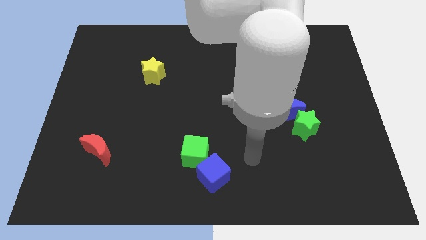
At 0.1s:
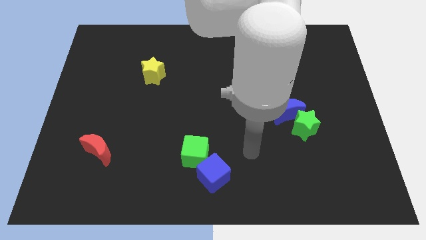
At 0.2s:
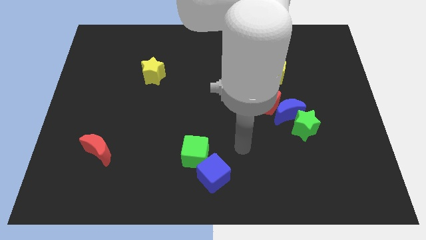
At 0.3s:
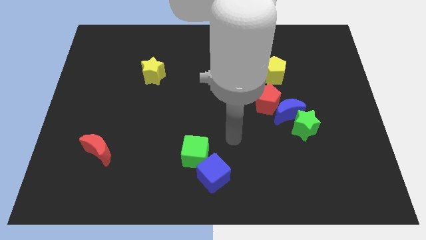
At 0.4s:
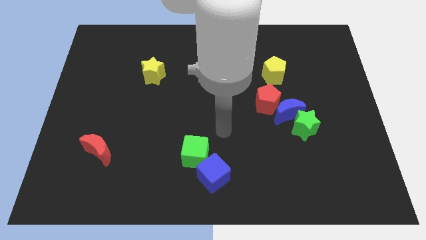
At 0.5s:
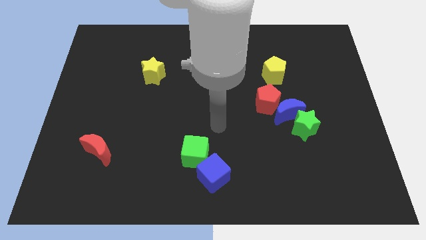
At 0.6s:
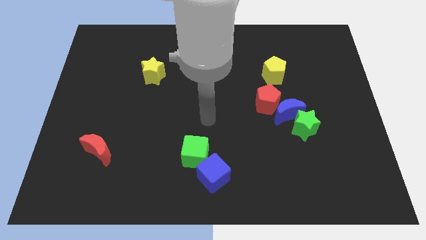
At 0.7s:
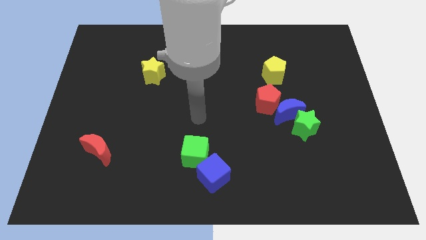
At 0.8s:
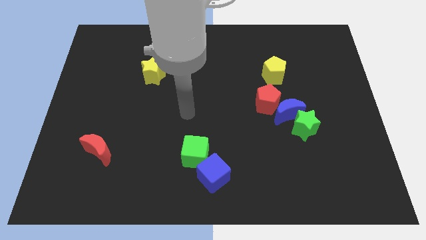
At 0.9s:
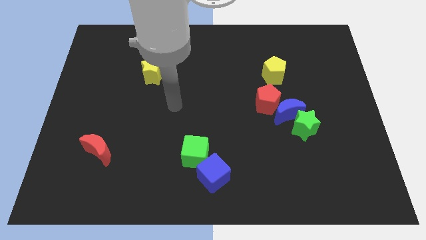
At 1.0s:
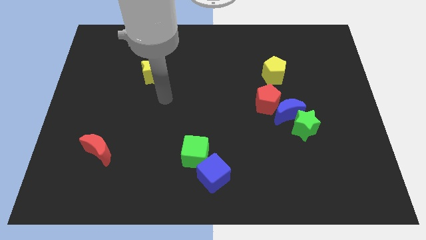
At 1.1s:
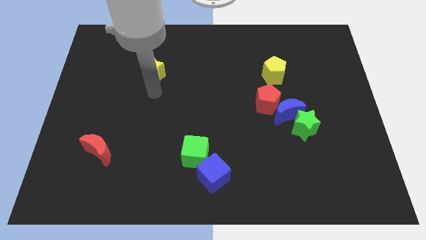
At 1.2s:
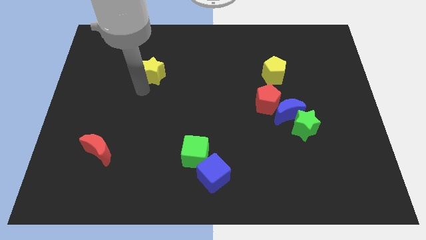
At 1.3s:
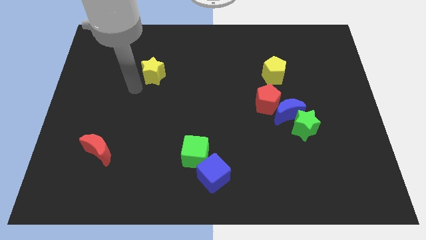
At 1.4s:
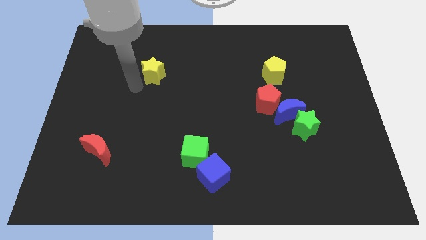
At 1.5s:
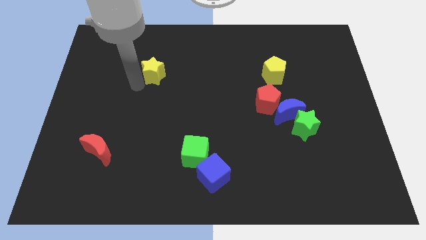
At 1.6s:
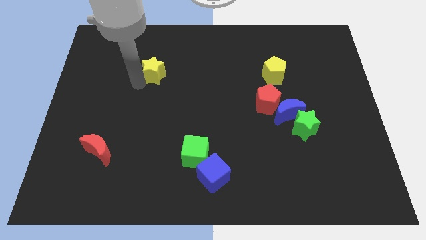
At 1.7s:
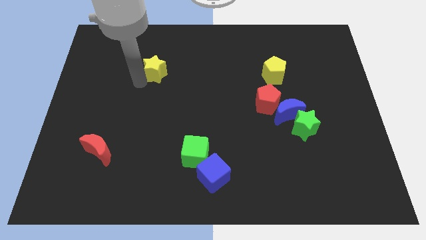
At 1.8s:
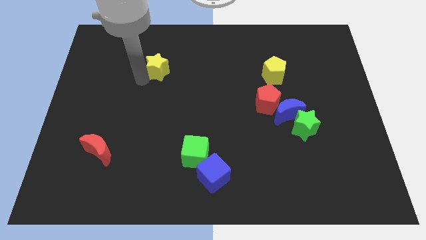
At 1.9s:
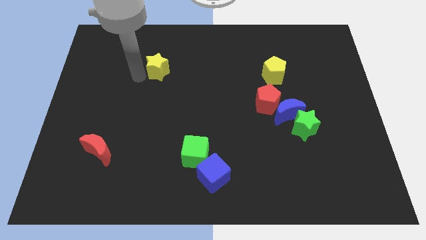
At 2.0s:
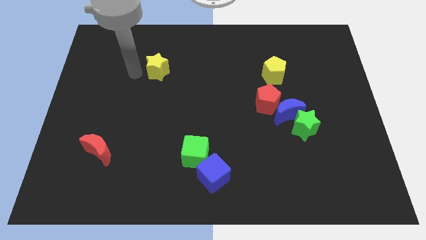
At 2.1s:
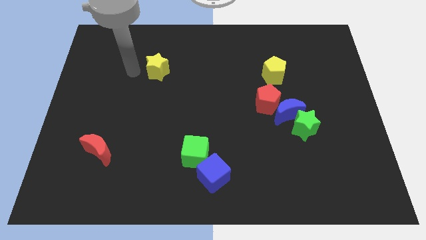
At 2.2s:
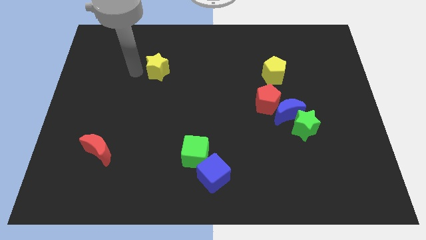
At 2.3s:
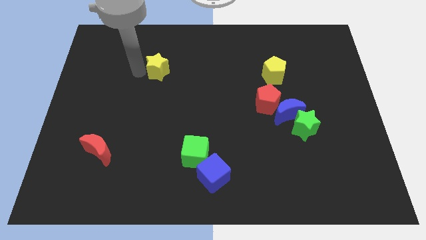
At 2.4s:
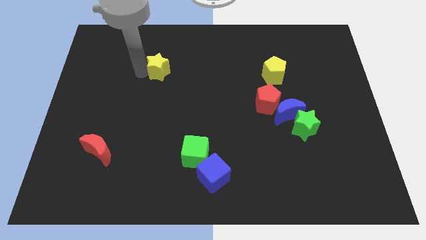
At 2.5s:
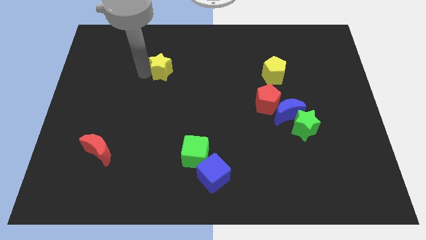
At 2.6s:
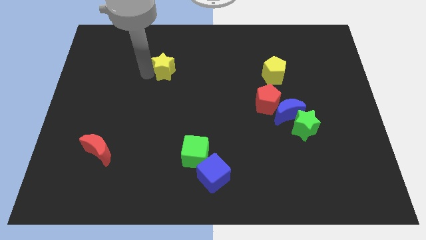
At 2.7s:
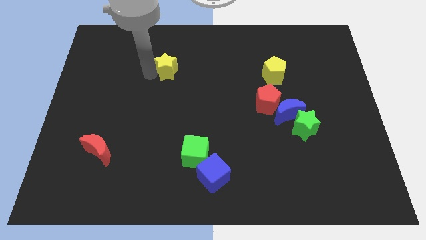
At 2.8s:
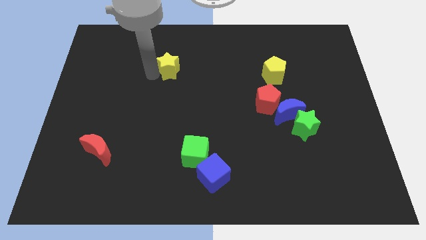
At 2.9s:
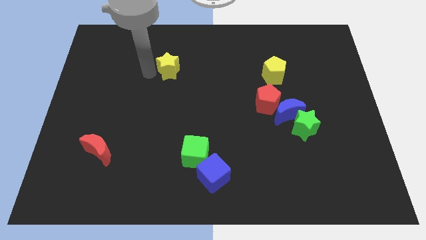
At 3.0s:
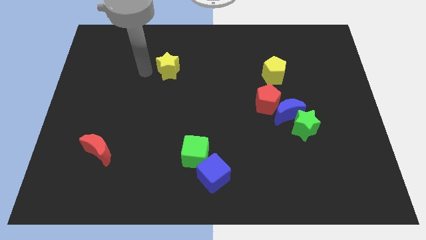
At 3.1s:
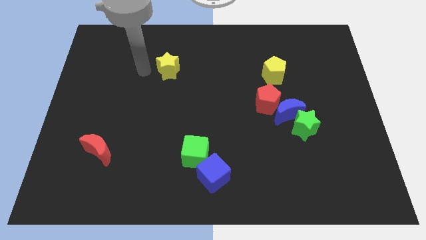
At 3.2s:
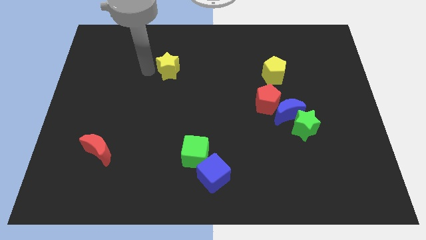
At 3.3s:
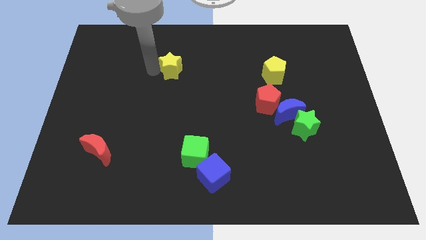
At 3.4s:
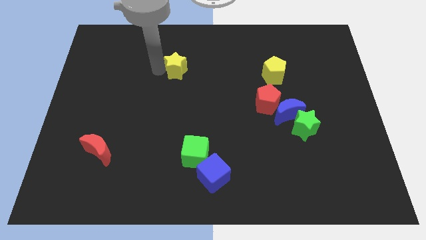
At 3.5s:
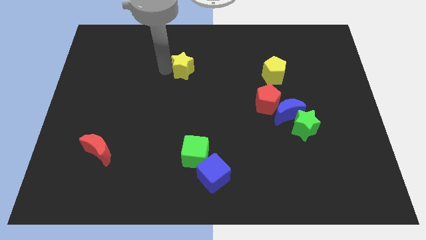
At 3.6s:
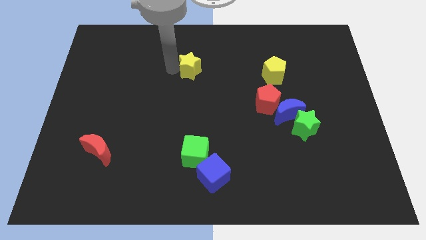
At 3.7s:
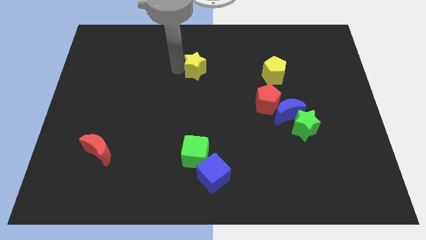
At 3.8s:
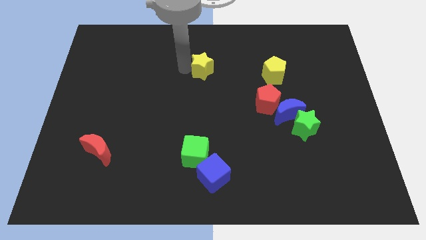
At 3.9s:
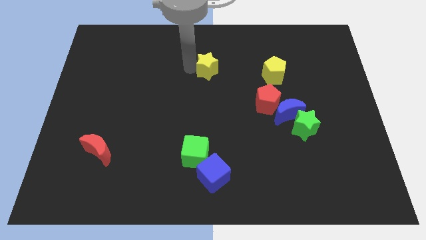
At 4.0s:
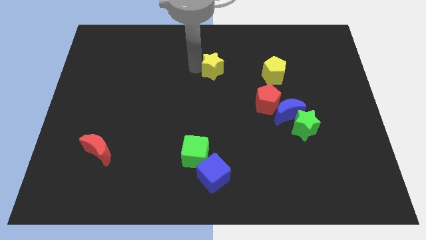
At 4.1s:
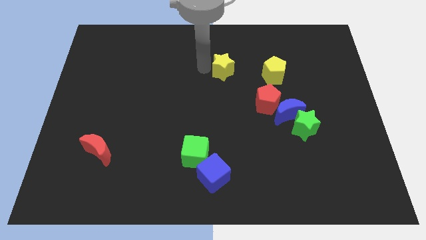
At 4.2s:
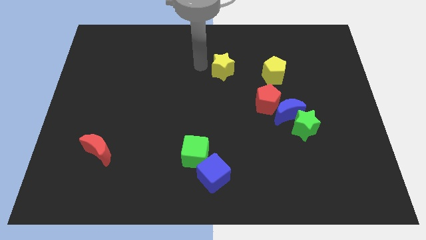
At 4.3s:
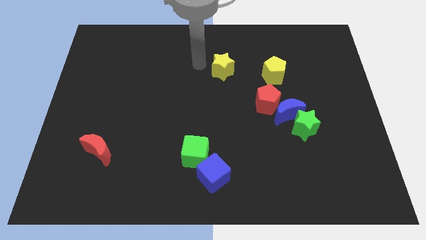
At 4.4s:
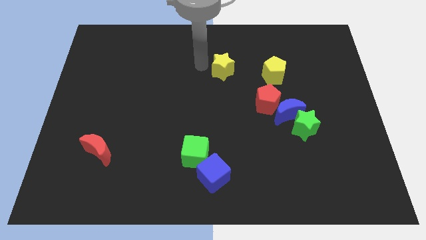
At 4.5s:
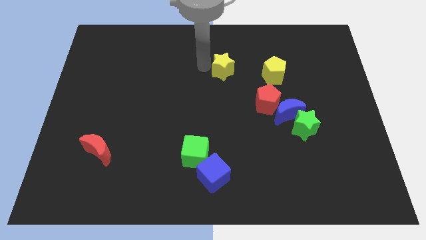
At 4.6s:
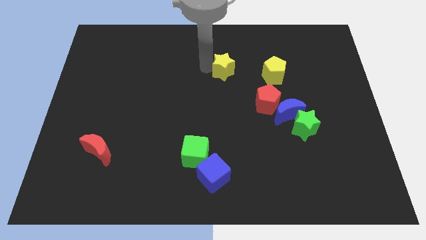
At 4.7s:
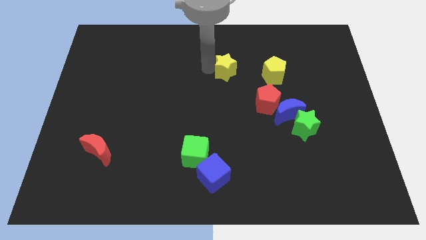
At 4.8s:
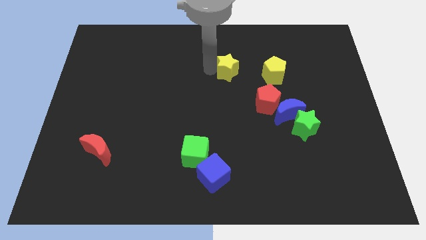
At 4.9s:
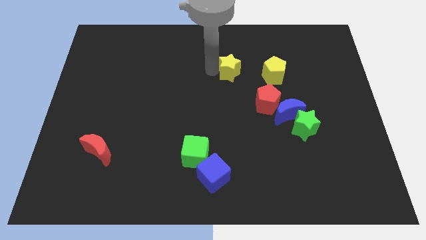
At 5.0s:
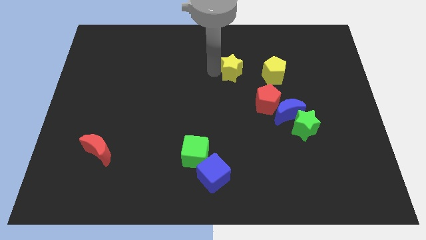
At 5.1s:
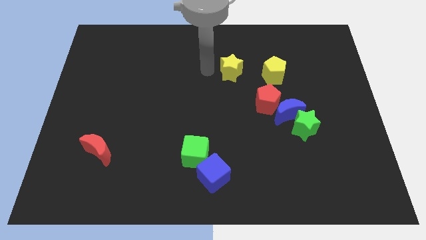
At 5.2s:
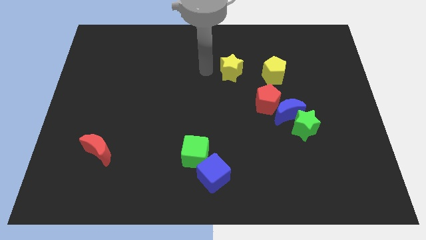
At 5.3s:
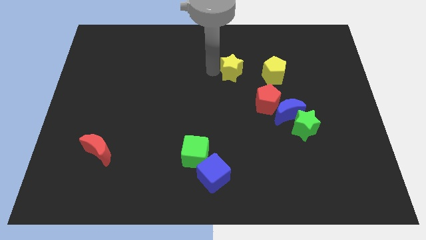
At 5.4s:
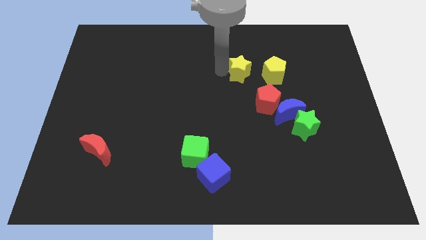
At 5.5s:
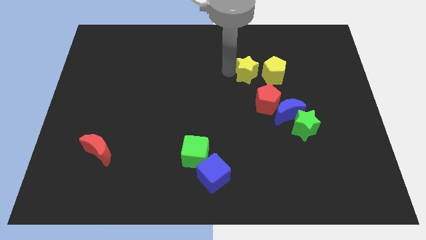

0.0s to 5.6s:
move the yellow star to the top of the red pentagon
